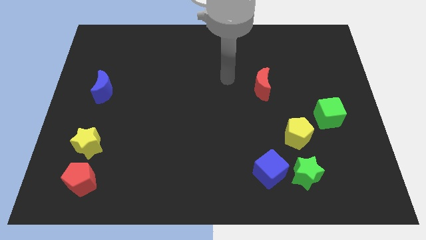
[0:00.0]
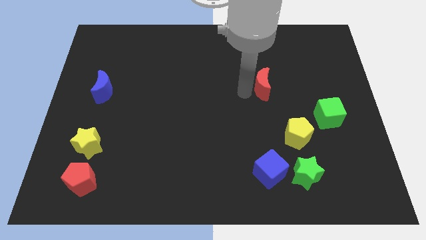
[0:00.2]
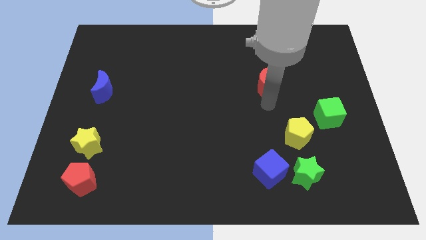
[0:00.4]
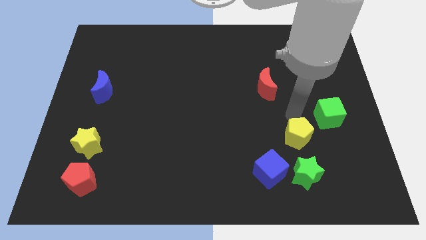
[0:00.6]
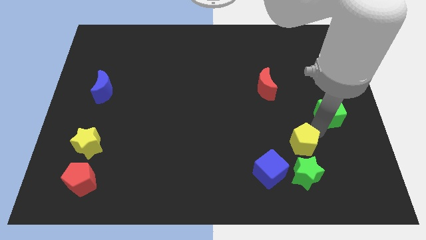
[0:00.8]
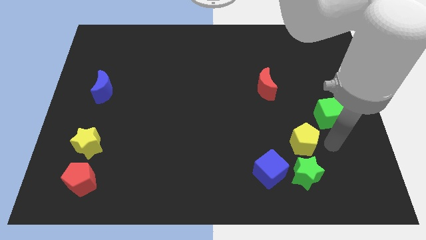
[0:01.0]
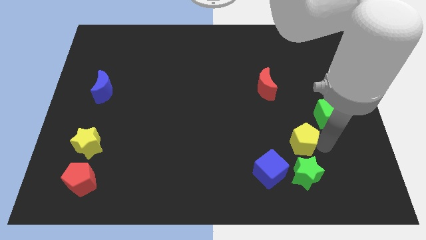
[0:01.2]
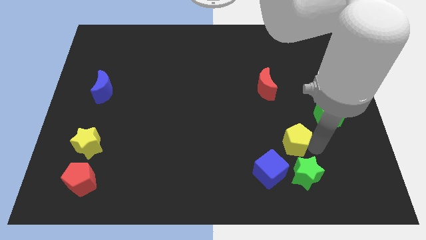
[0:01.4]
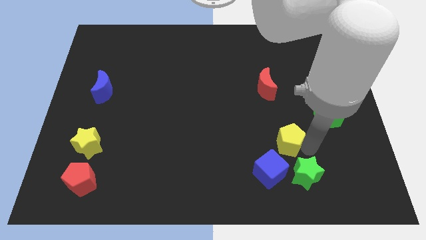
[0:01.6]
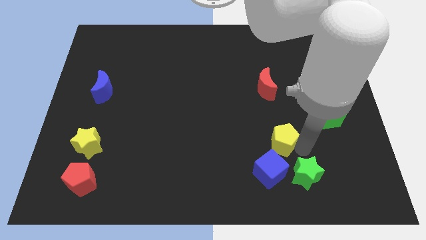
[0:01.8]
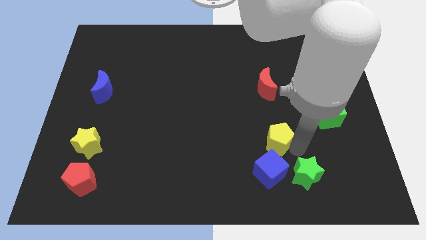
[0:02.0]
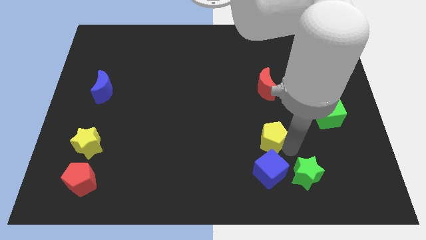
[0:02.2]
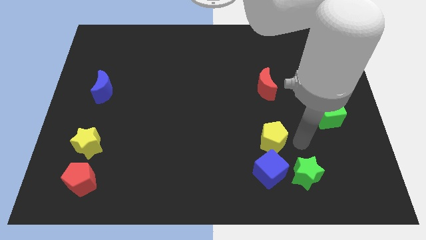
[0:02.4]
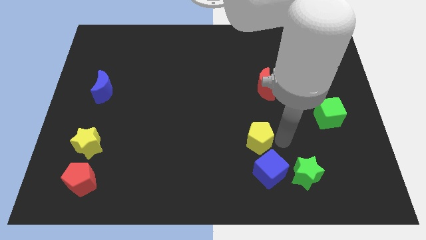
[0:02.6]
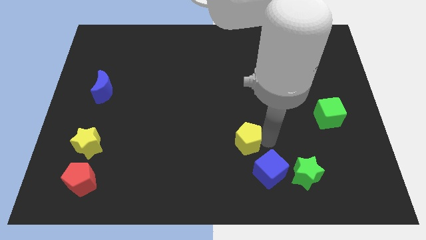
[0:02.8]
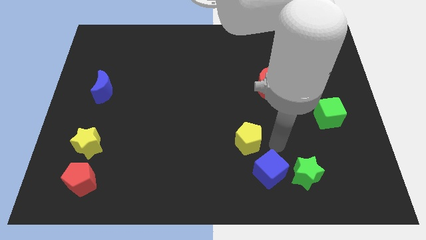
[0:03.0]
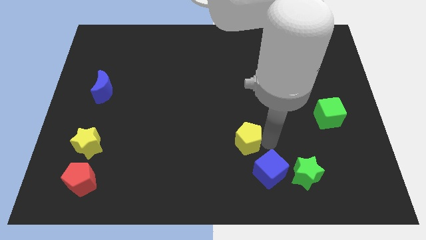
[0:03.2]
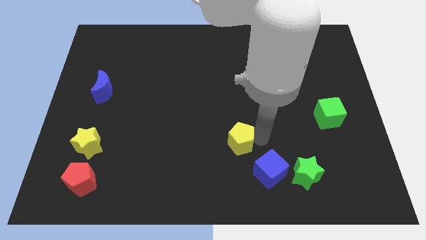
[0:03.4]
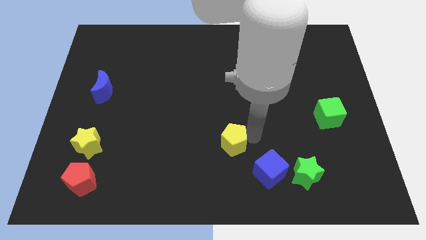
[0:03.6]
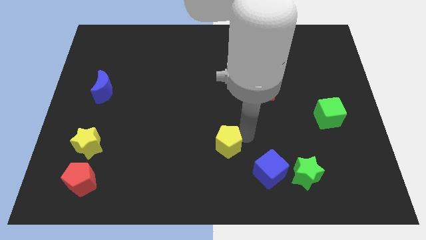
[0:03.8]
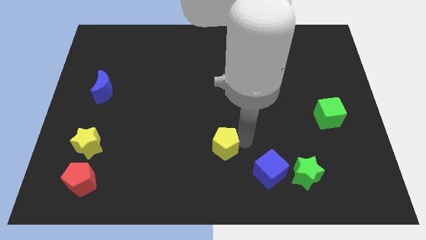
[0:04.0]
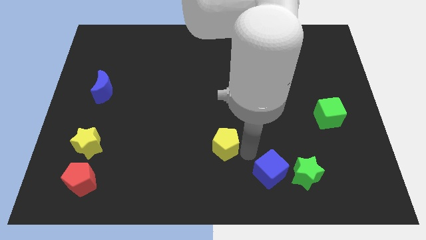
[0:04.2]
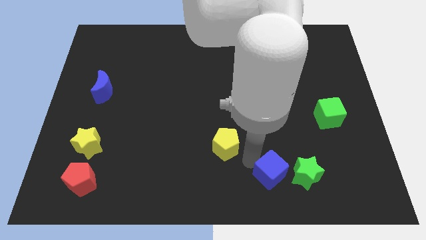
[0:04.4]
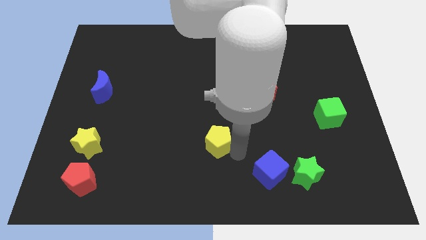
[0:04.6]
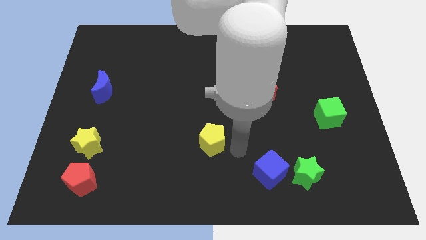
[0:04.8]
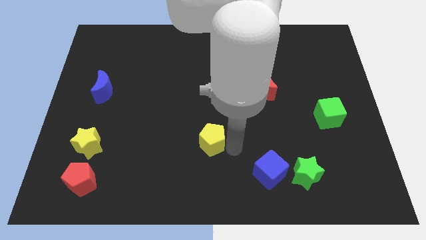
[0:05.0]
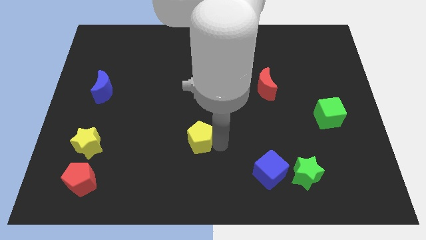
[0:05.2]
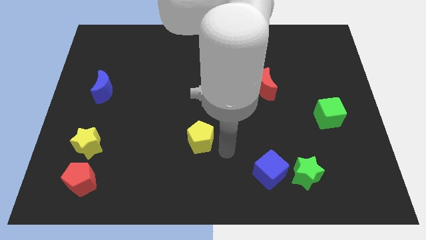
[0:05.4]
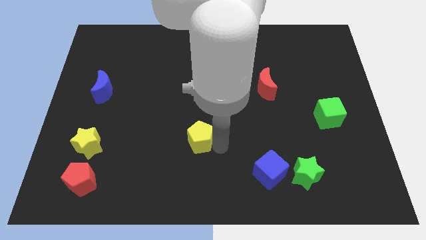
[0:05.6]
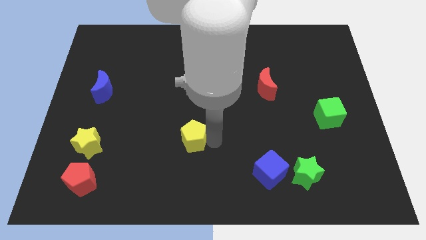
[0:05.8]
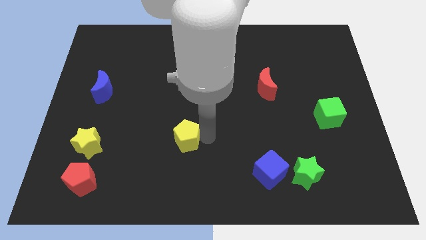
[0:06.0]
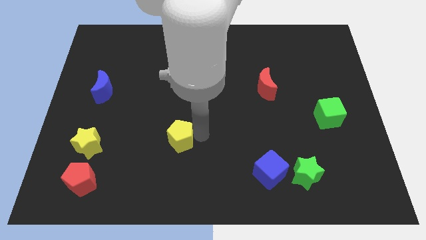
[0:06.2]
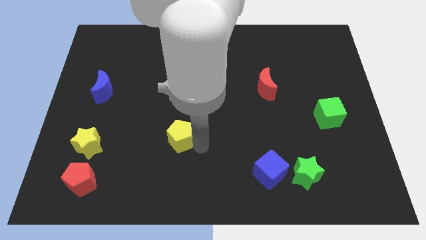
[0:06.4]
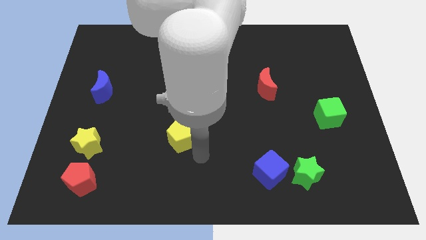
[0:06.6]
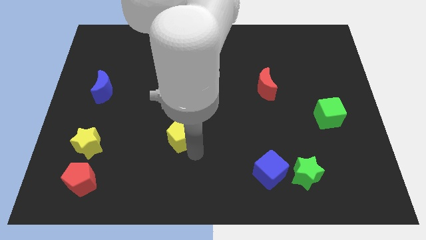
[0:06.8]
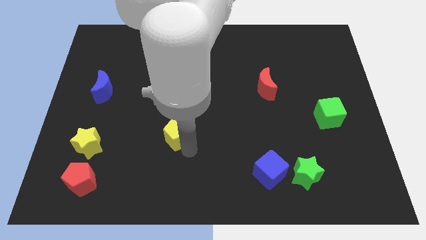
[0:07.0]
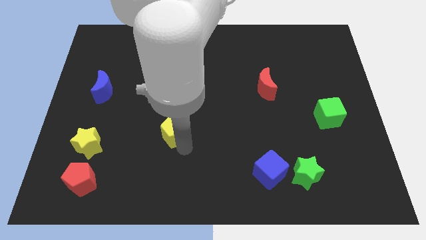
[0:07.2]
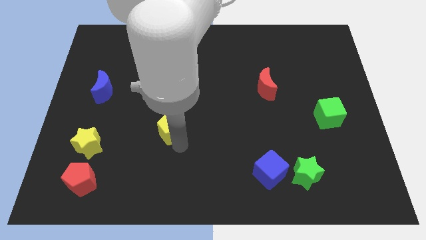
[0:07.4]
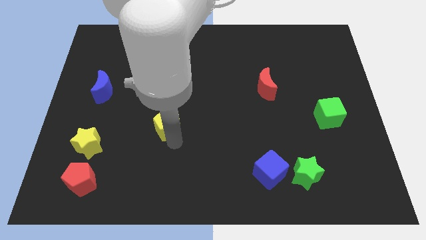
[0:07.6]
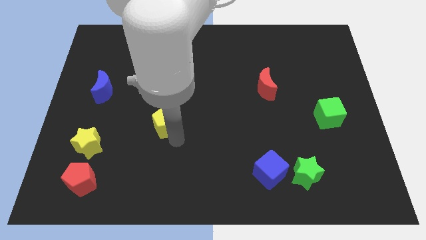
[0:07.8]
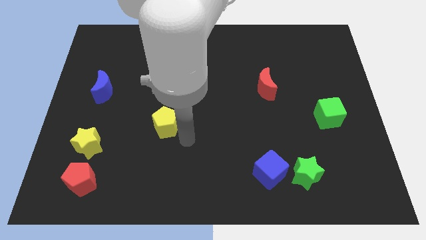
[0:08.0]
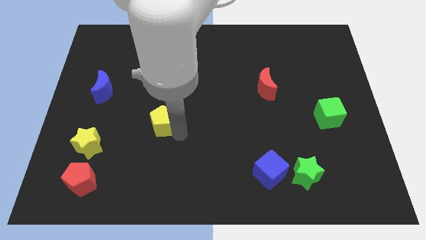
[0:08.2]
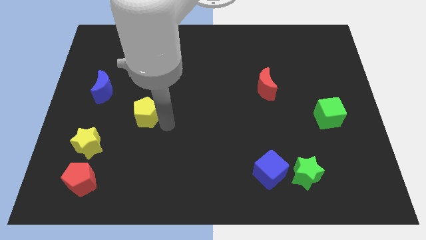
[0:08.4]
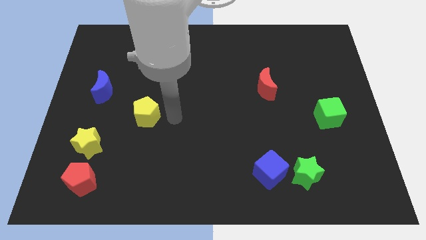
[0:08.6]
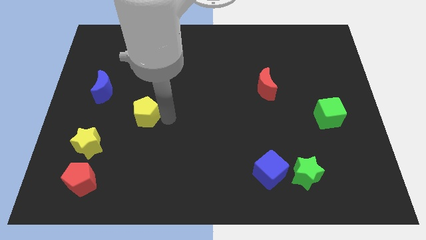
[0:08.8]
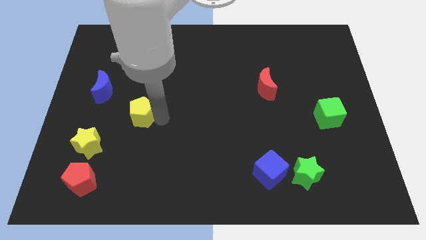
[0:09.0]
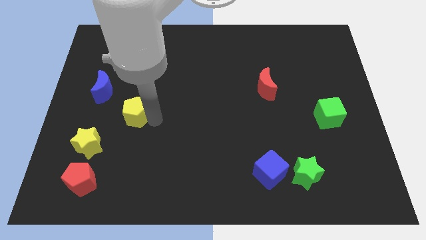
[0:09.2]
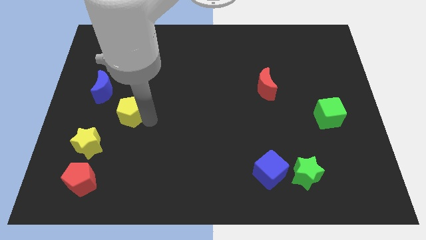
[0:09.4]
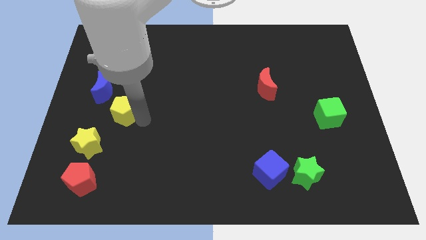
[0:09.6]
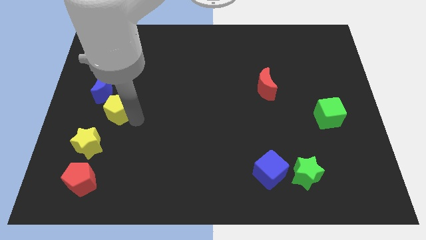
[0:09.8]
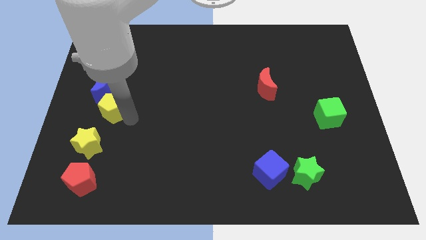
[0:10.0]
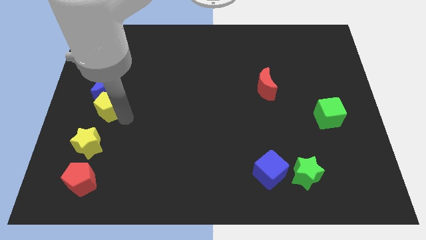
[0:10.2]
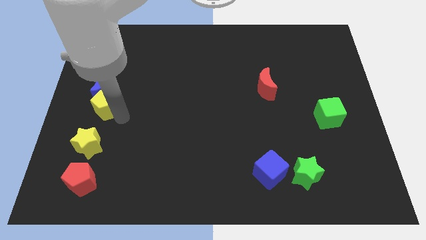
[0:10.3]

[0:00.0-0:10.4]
slide the yellow pentagon to the left side

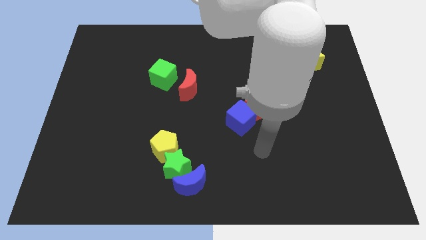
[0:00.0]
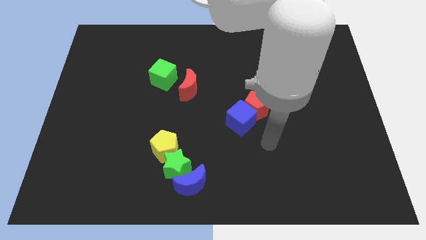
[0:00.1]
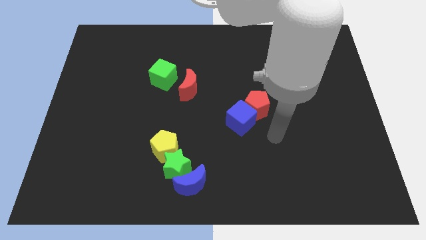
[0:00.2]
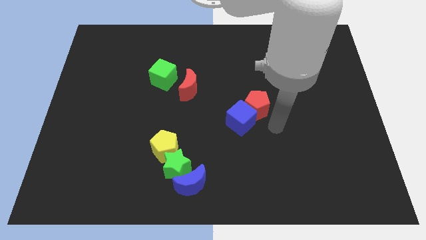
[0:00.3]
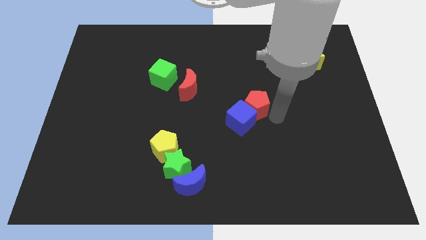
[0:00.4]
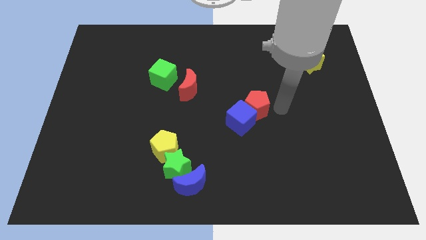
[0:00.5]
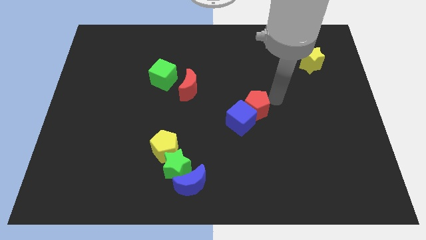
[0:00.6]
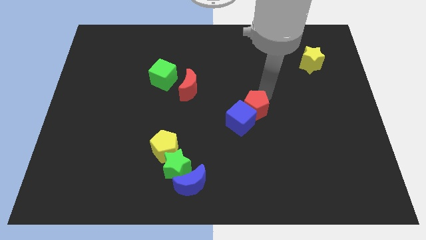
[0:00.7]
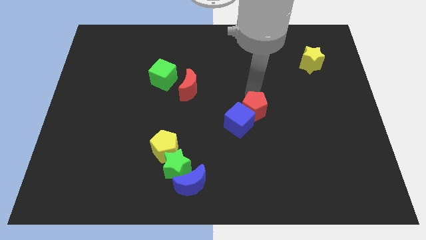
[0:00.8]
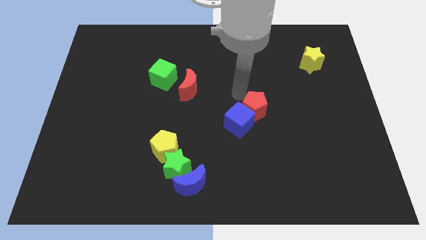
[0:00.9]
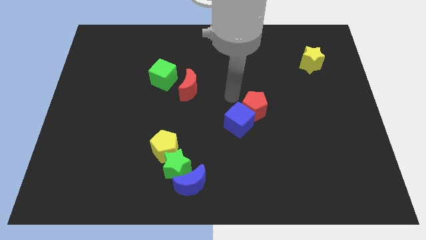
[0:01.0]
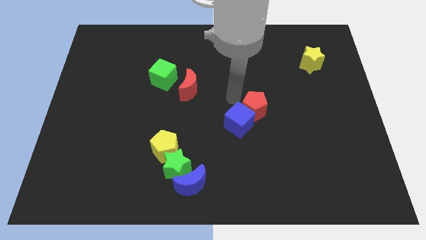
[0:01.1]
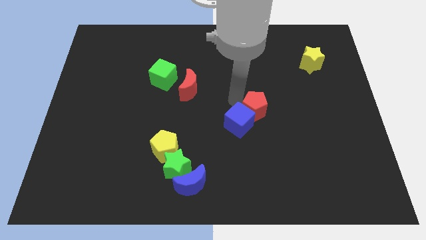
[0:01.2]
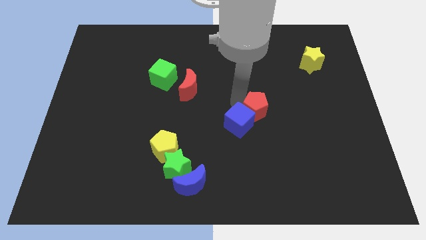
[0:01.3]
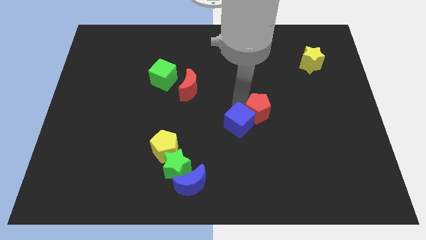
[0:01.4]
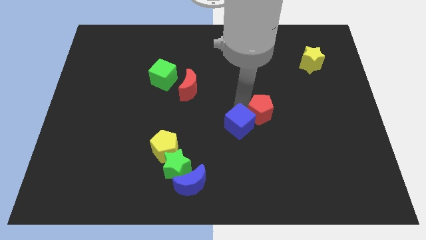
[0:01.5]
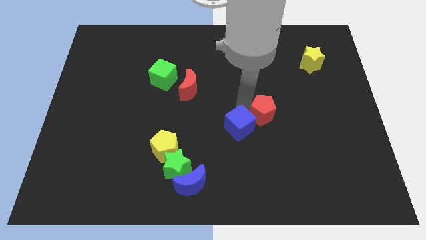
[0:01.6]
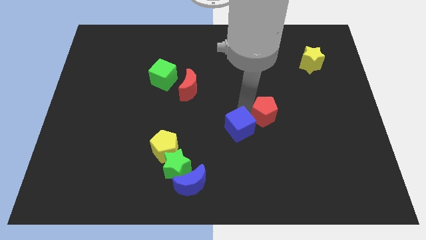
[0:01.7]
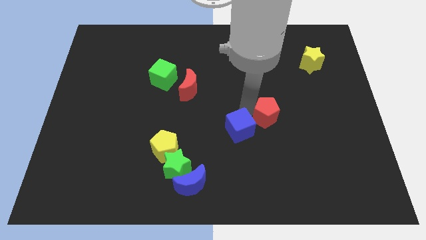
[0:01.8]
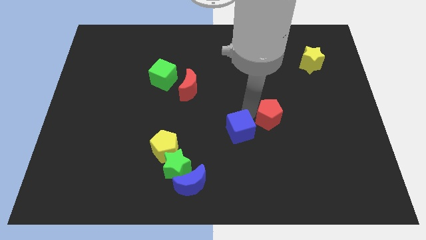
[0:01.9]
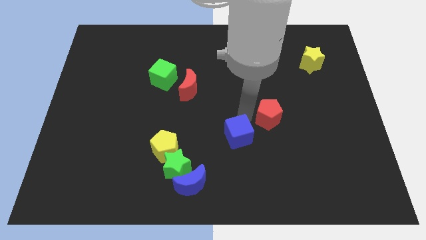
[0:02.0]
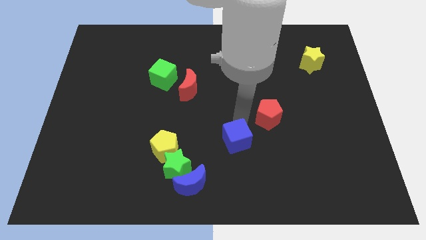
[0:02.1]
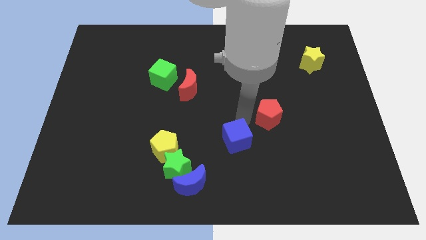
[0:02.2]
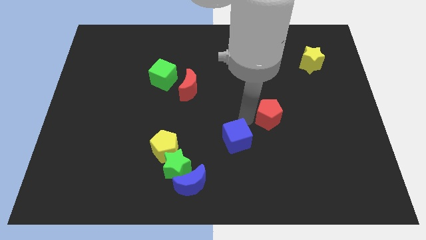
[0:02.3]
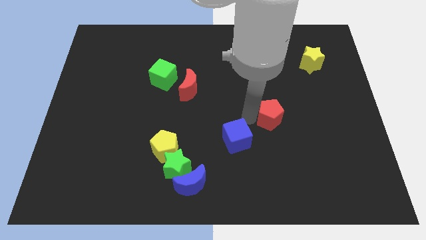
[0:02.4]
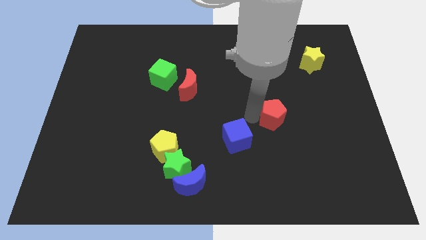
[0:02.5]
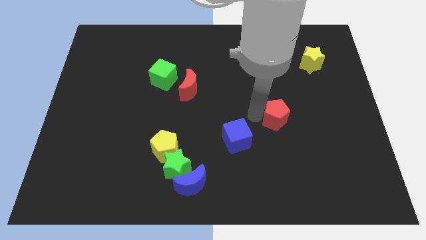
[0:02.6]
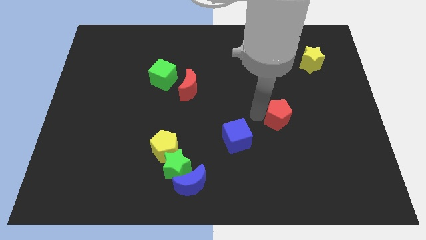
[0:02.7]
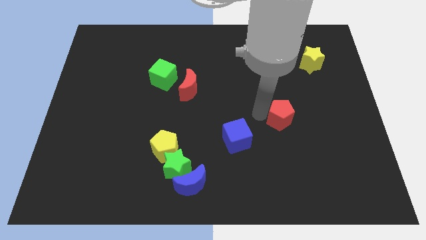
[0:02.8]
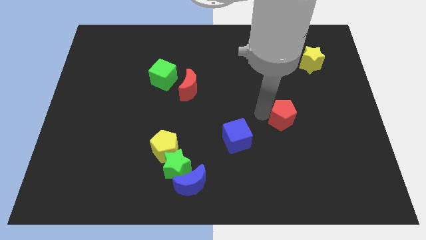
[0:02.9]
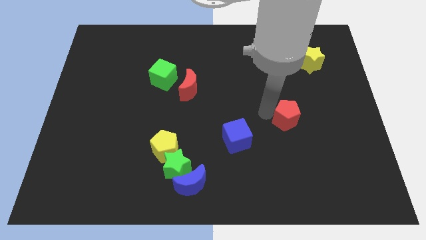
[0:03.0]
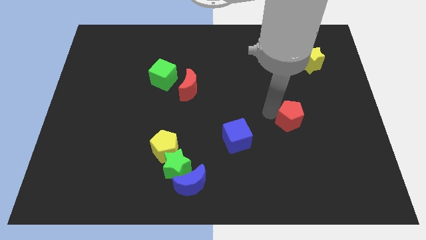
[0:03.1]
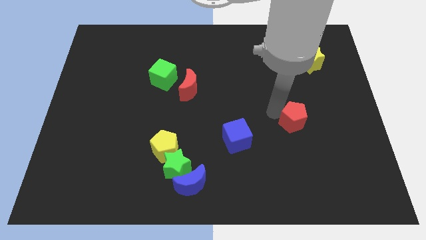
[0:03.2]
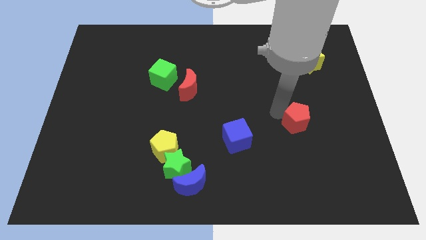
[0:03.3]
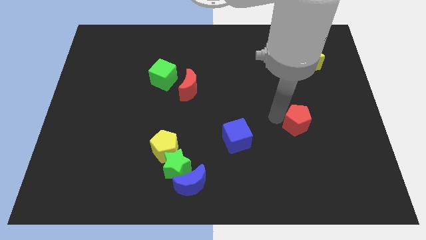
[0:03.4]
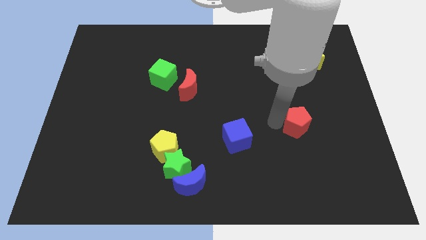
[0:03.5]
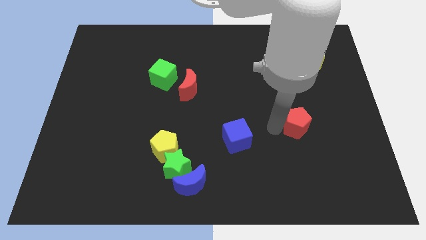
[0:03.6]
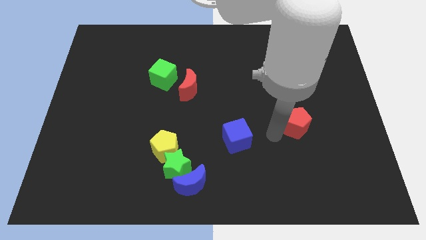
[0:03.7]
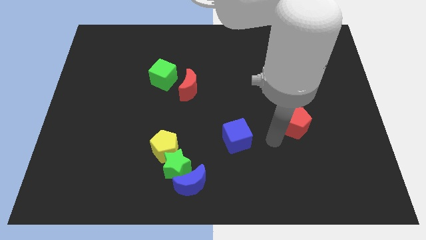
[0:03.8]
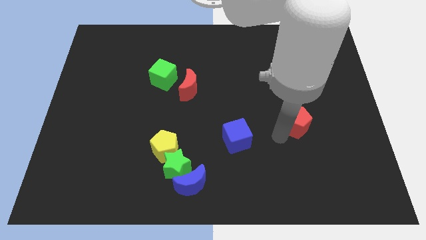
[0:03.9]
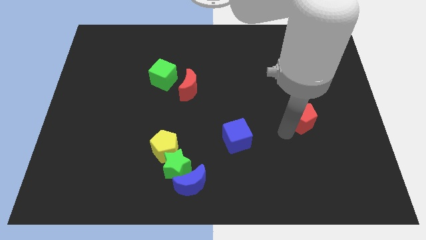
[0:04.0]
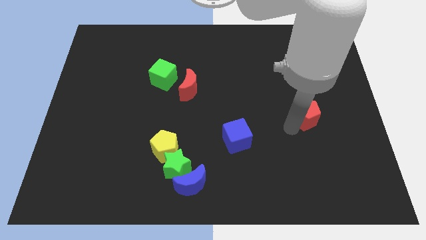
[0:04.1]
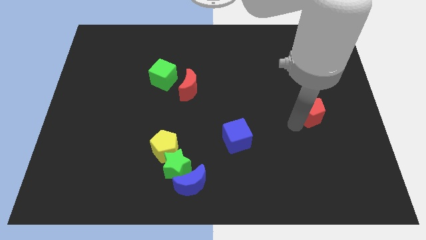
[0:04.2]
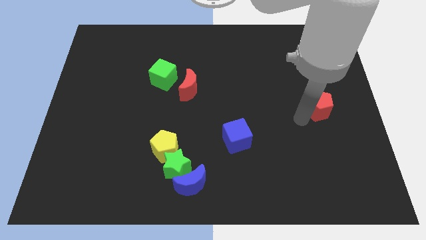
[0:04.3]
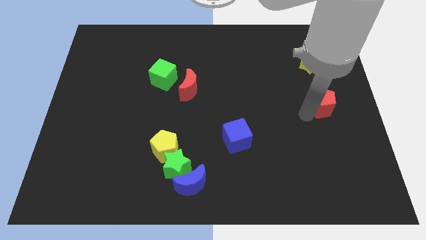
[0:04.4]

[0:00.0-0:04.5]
move the red pentagon to the center right
